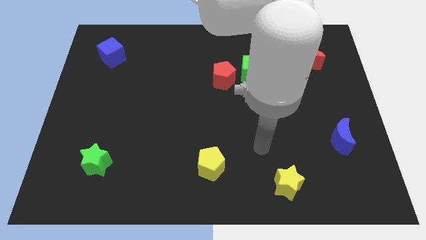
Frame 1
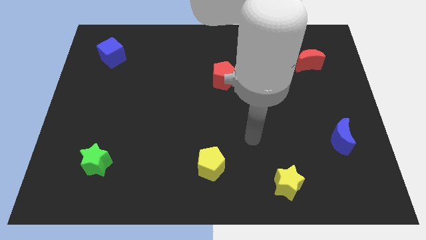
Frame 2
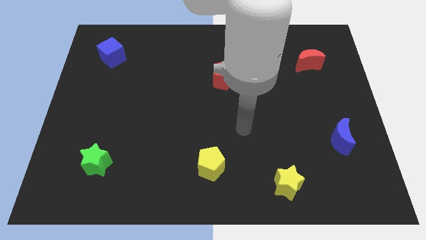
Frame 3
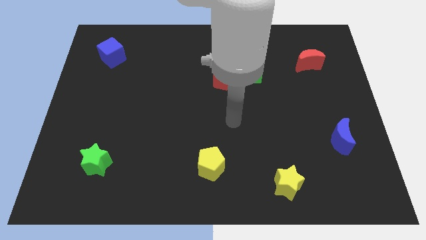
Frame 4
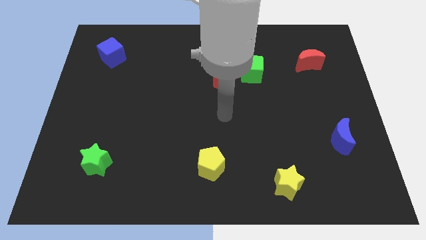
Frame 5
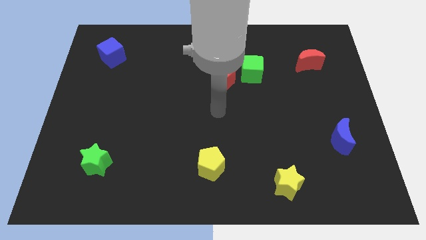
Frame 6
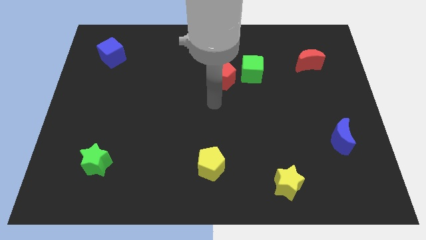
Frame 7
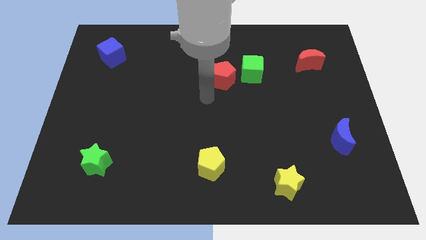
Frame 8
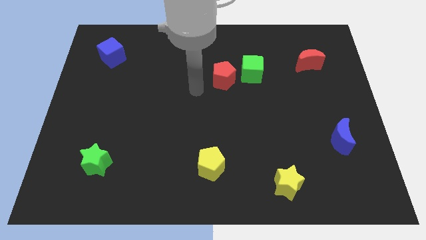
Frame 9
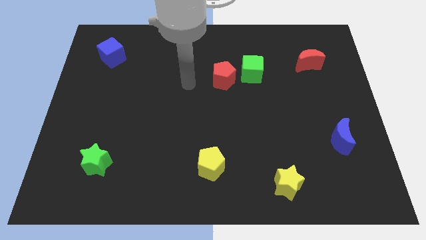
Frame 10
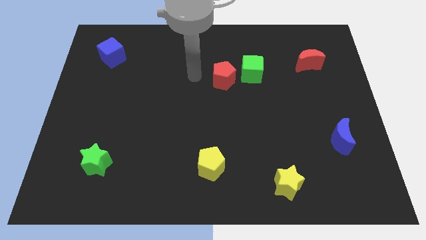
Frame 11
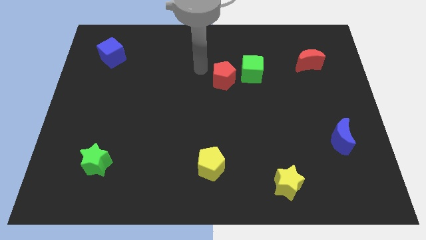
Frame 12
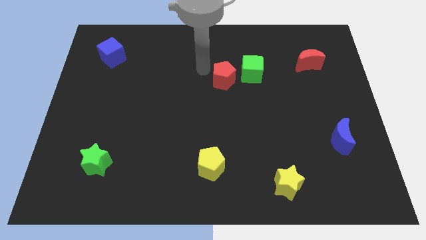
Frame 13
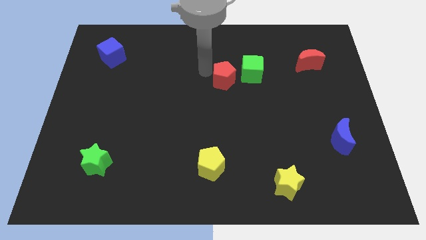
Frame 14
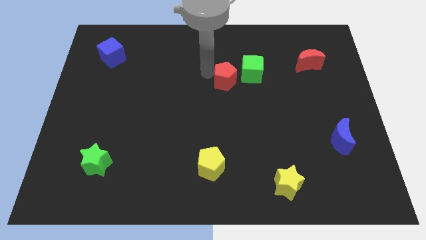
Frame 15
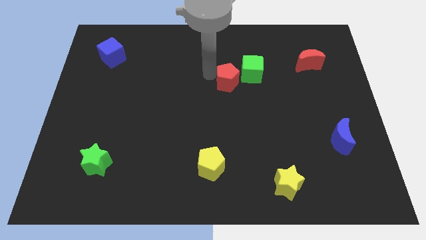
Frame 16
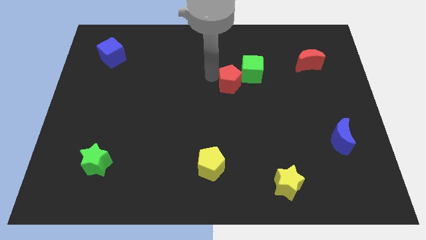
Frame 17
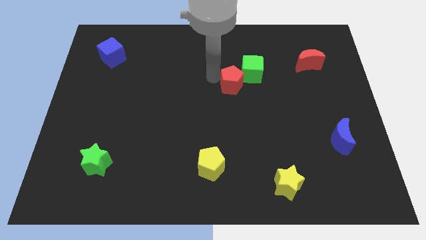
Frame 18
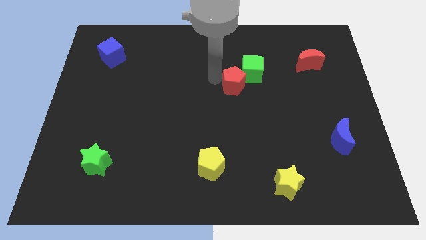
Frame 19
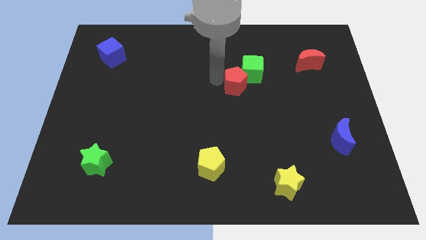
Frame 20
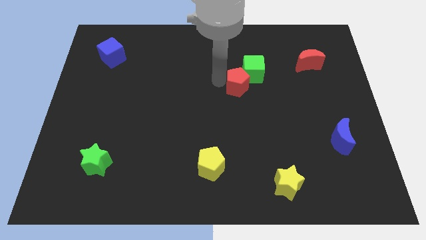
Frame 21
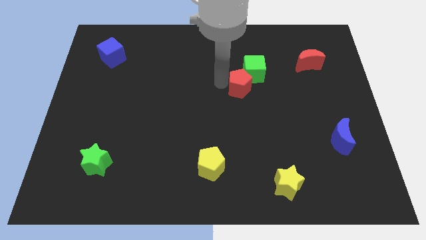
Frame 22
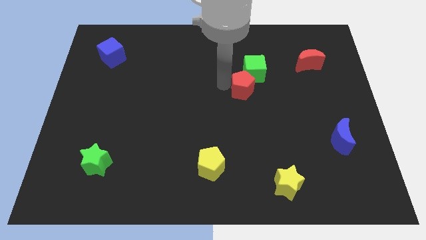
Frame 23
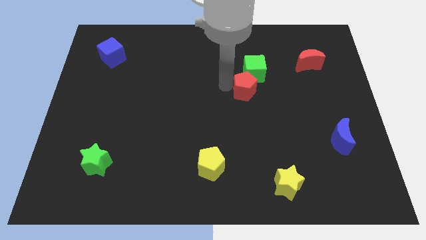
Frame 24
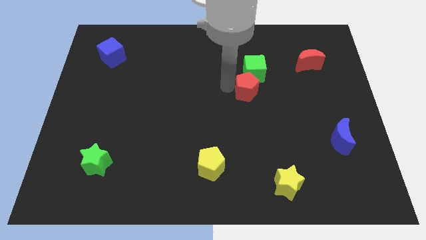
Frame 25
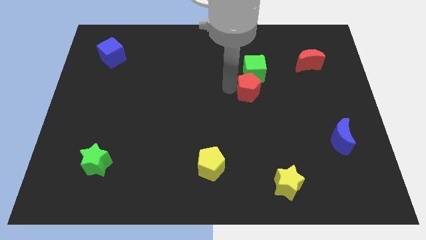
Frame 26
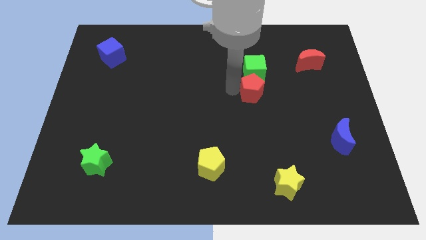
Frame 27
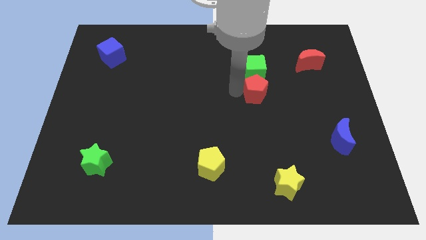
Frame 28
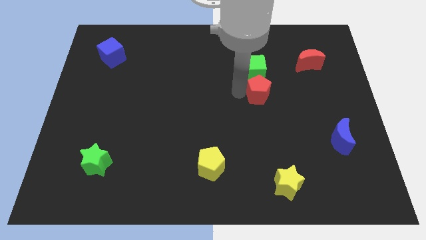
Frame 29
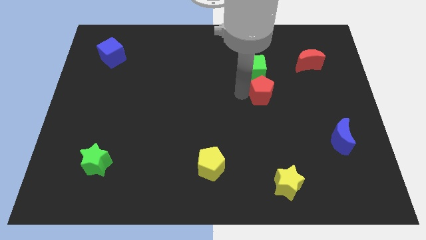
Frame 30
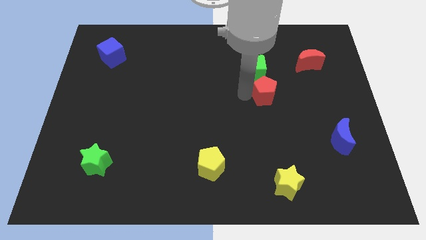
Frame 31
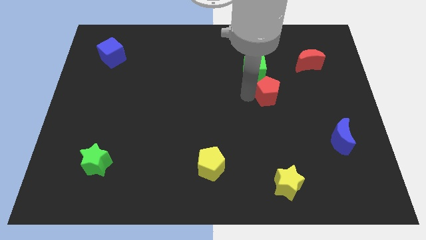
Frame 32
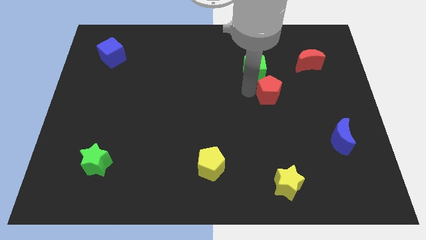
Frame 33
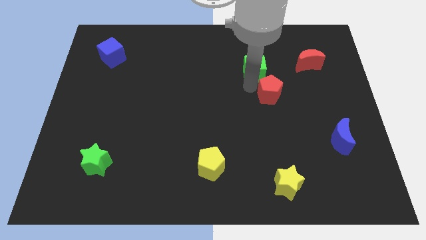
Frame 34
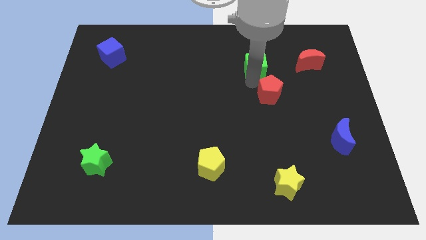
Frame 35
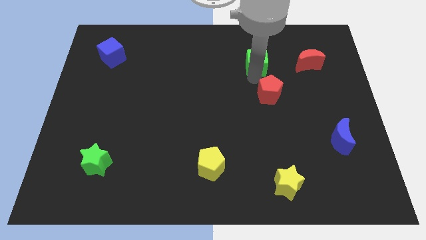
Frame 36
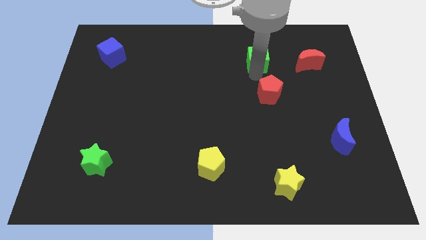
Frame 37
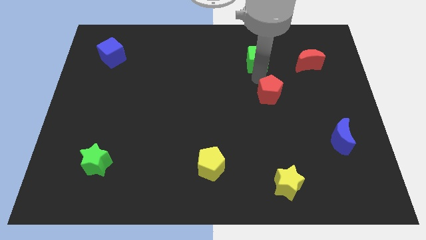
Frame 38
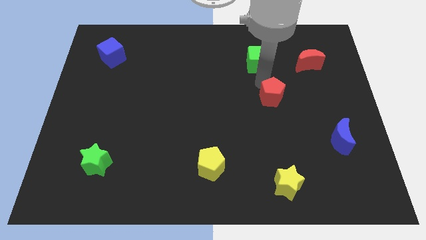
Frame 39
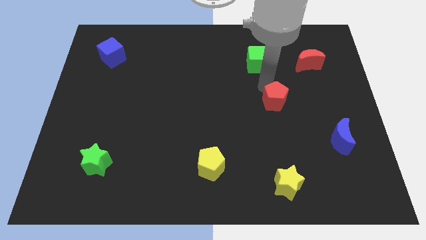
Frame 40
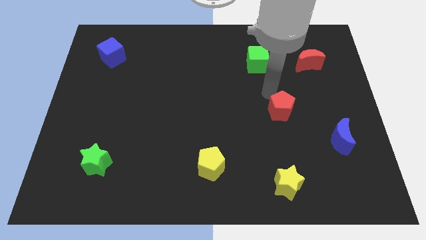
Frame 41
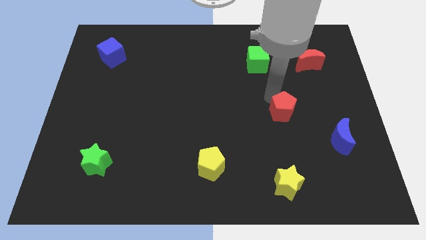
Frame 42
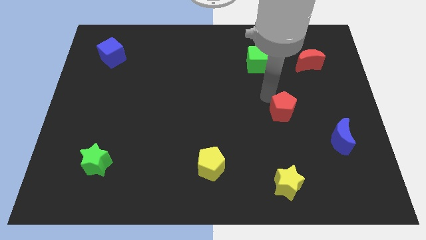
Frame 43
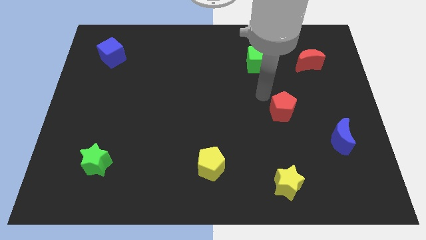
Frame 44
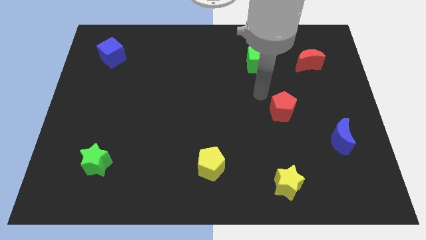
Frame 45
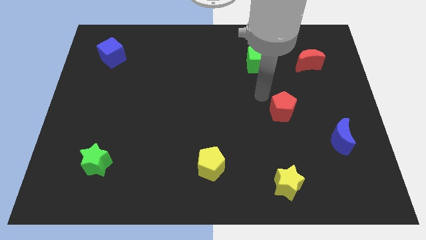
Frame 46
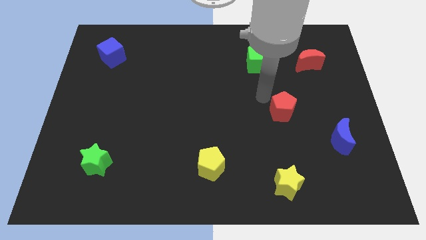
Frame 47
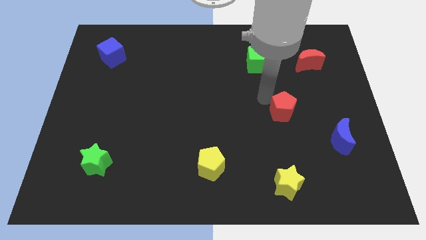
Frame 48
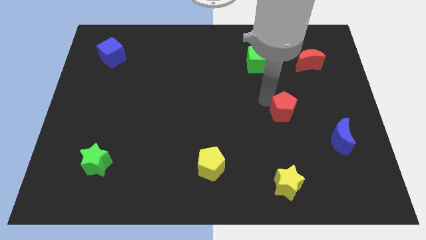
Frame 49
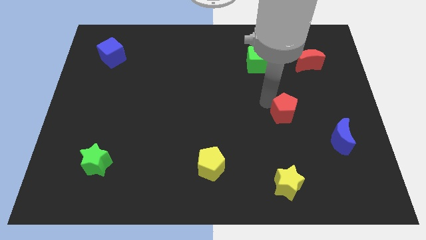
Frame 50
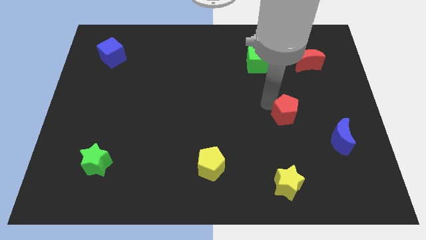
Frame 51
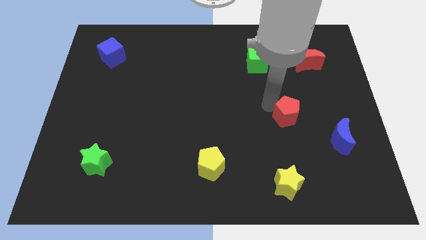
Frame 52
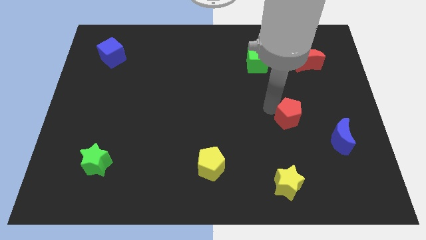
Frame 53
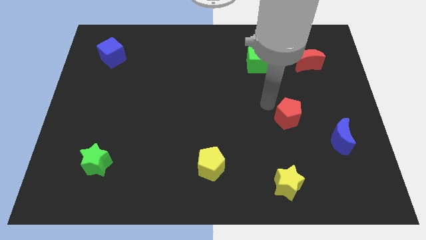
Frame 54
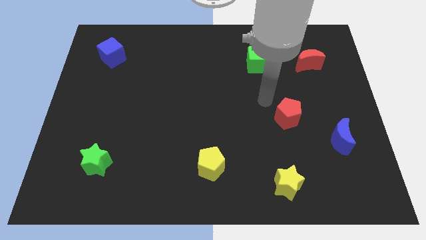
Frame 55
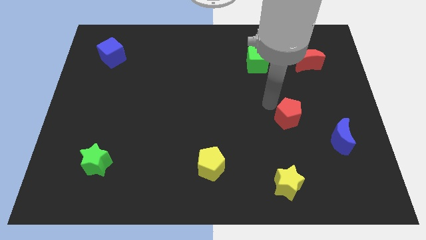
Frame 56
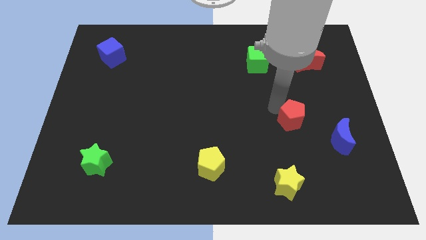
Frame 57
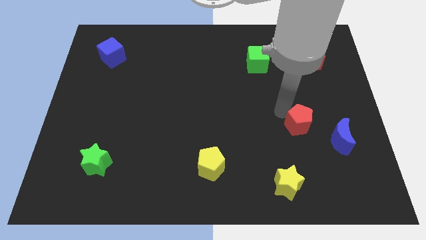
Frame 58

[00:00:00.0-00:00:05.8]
move the red pentagon downwards and right

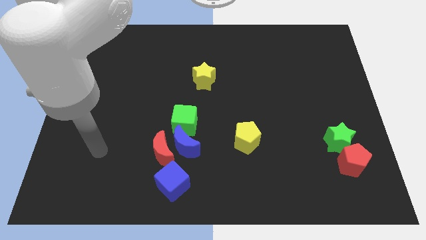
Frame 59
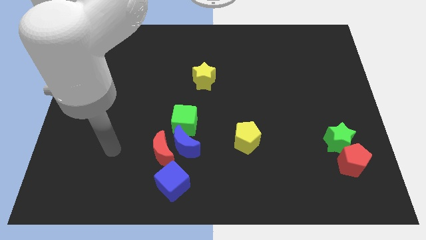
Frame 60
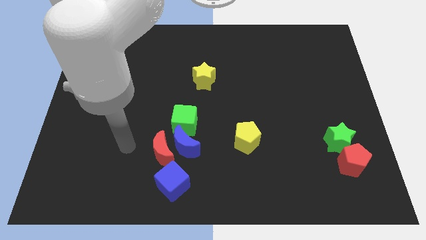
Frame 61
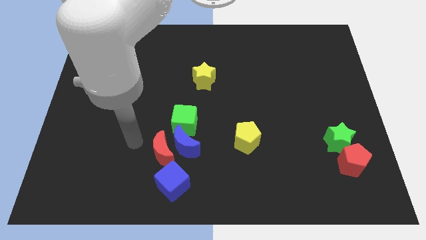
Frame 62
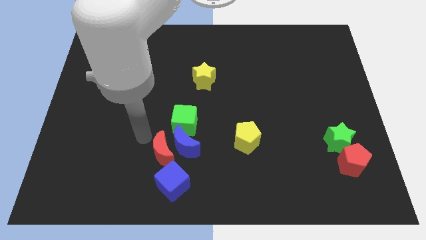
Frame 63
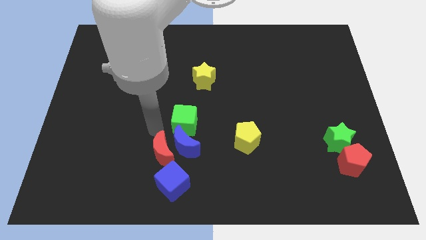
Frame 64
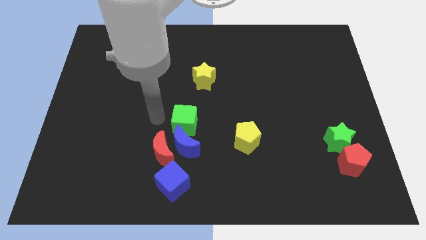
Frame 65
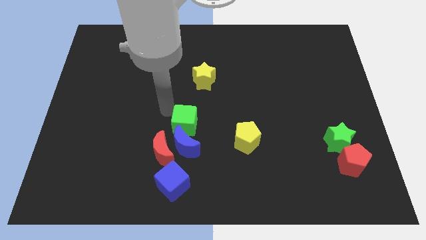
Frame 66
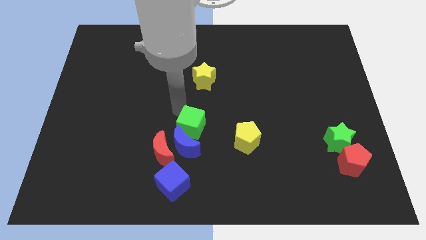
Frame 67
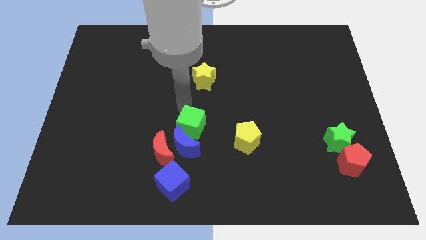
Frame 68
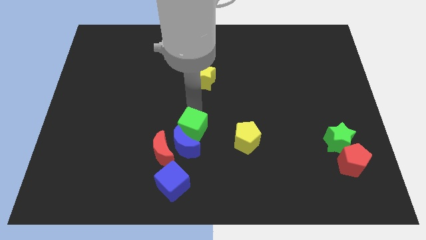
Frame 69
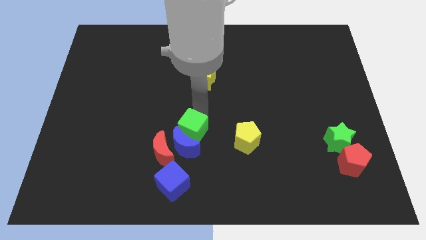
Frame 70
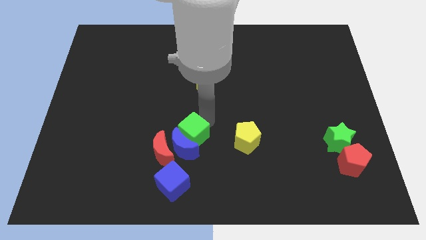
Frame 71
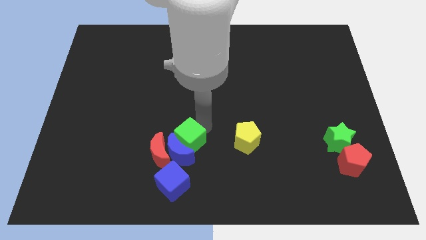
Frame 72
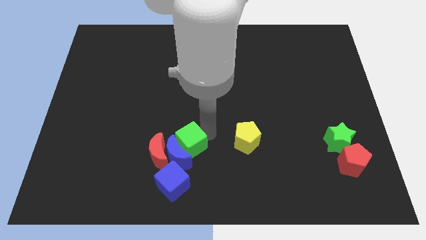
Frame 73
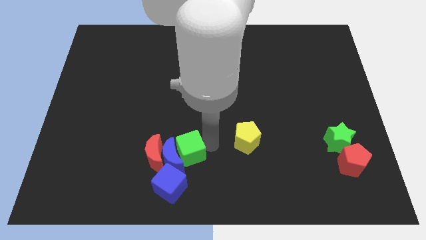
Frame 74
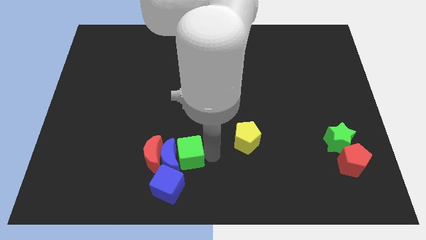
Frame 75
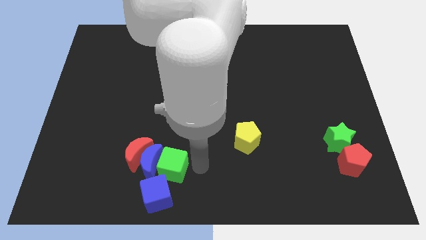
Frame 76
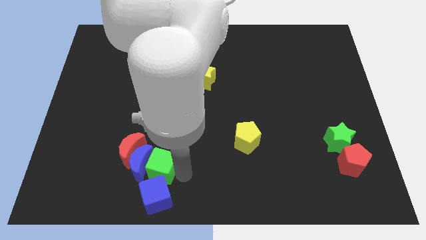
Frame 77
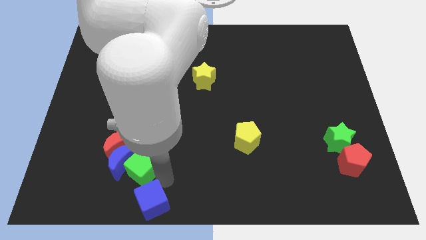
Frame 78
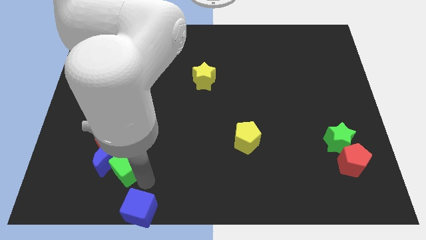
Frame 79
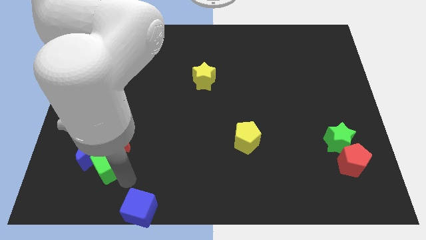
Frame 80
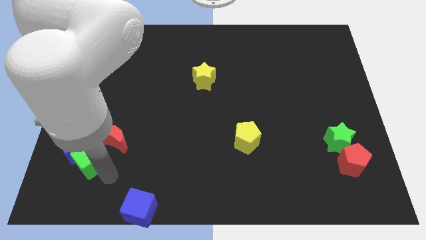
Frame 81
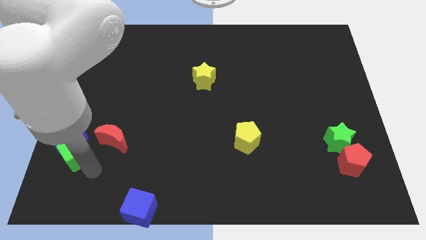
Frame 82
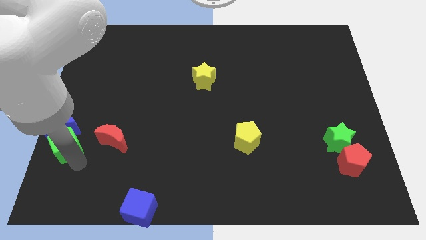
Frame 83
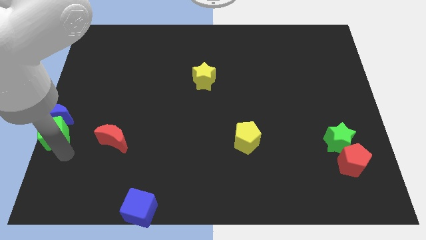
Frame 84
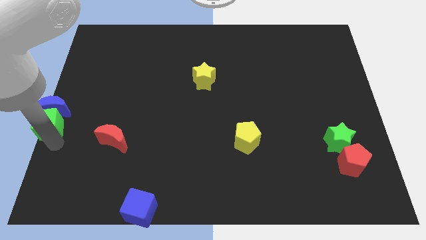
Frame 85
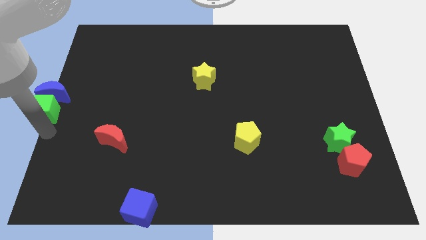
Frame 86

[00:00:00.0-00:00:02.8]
slide the blue moon up and then to the left
